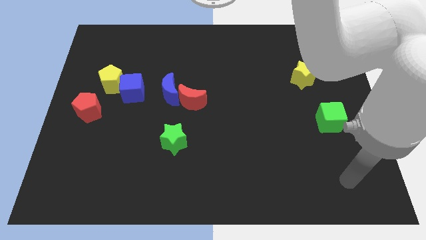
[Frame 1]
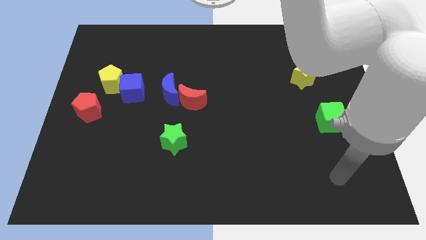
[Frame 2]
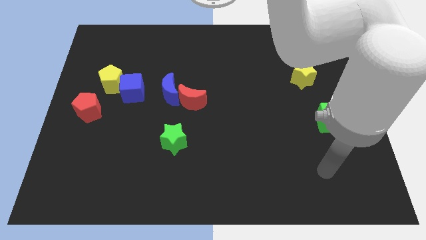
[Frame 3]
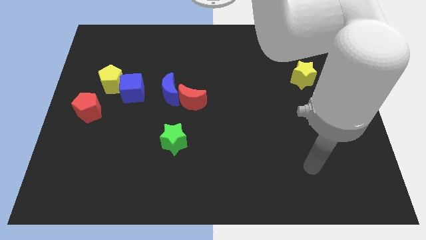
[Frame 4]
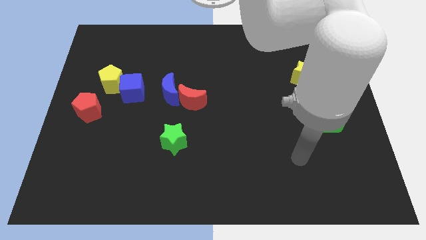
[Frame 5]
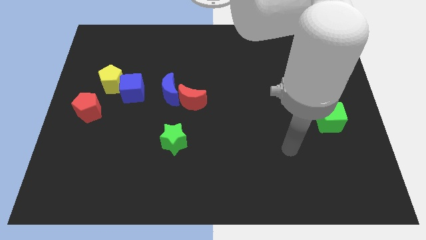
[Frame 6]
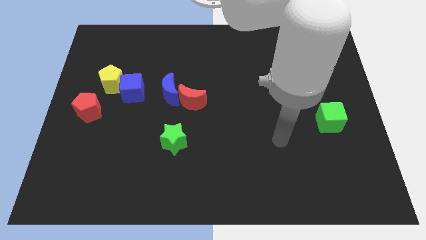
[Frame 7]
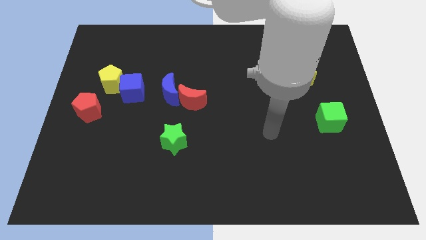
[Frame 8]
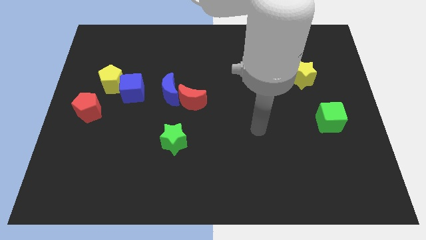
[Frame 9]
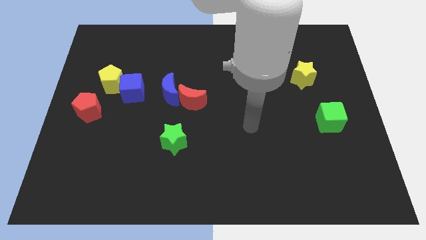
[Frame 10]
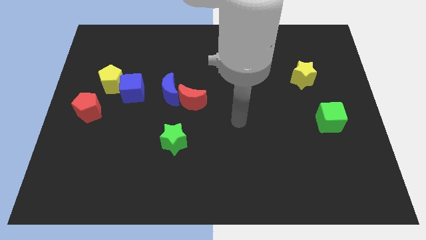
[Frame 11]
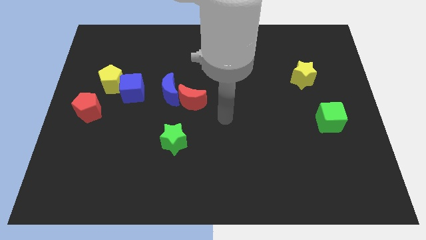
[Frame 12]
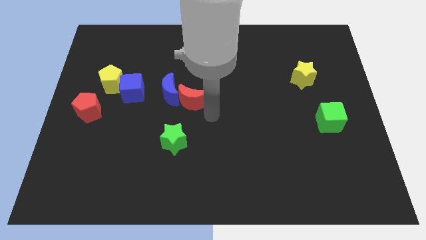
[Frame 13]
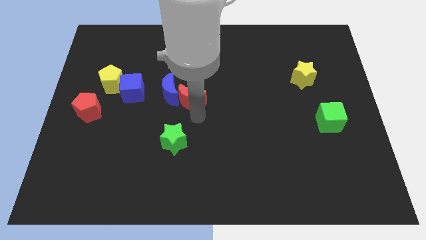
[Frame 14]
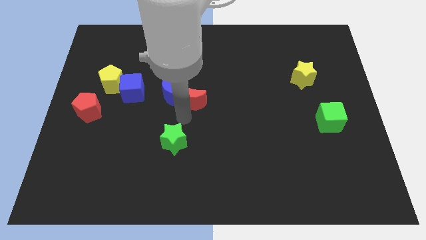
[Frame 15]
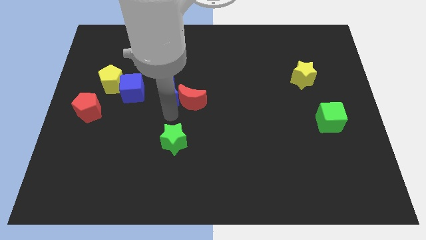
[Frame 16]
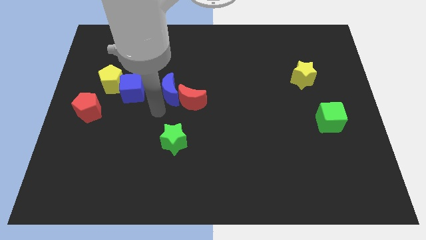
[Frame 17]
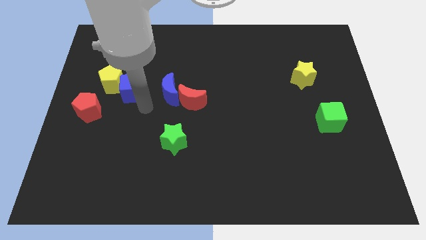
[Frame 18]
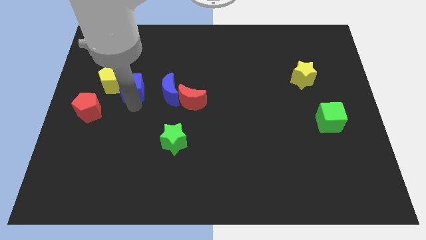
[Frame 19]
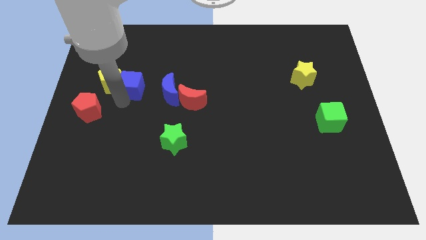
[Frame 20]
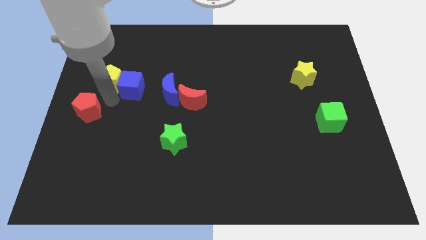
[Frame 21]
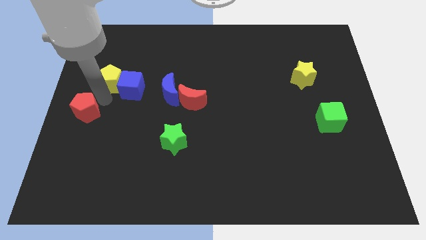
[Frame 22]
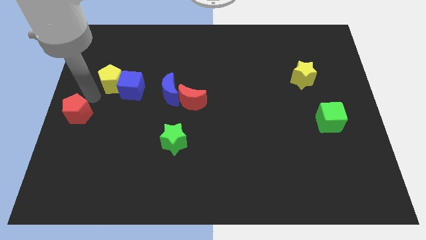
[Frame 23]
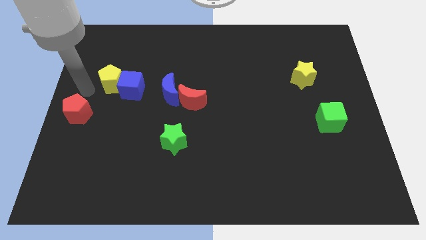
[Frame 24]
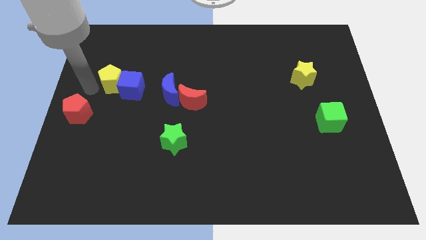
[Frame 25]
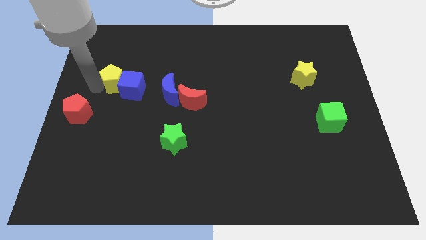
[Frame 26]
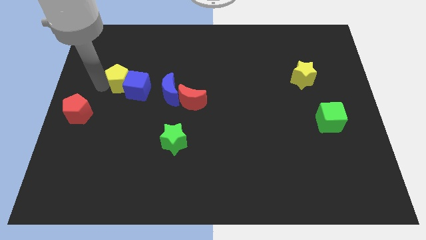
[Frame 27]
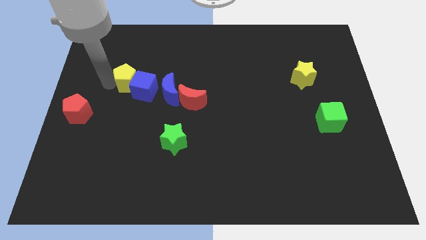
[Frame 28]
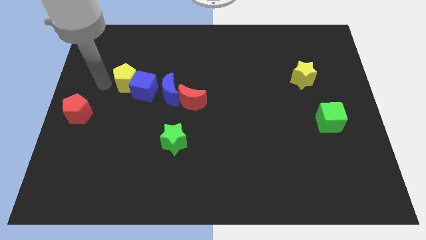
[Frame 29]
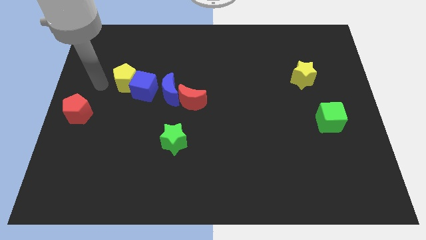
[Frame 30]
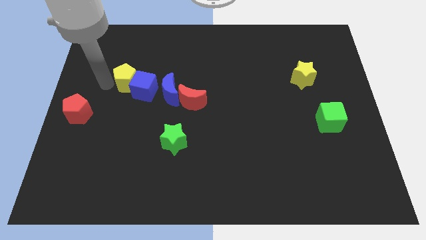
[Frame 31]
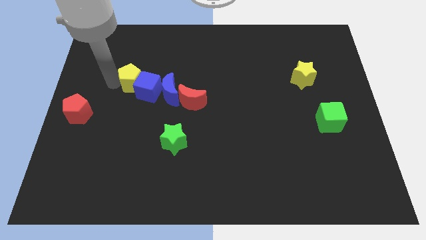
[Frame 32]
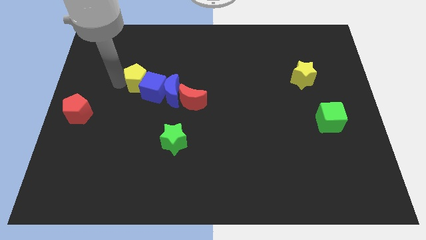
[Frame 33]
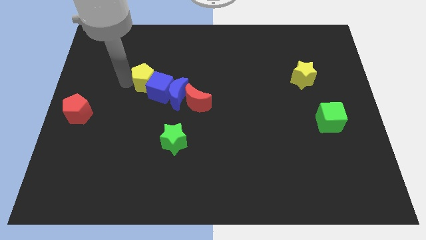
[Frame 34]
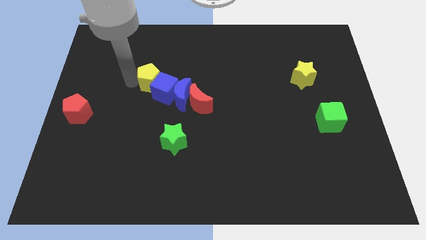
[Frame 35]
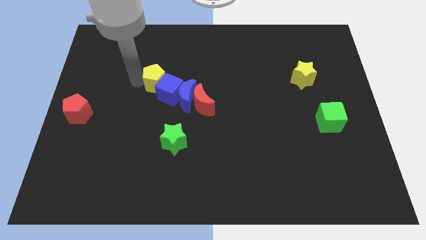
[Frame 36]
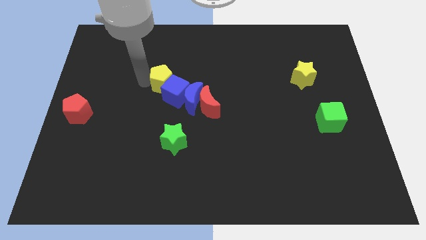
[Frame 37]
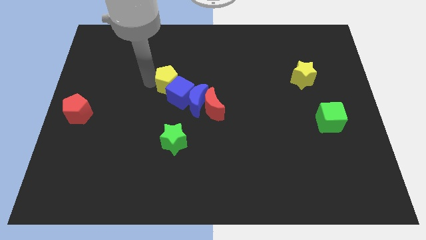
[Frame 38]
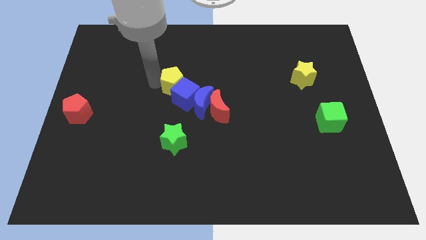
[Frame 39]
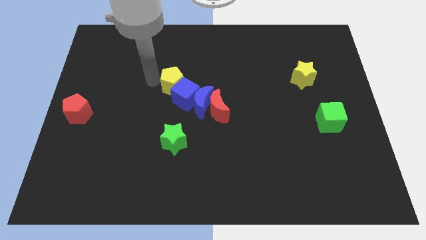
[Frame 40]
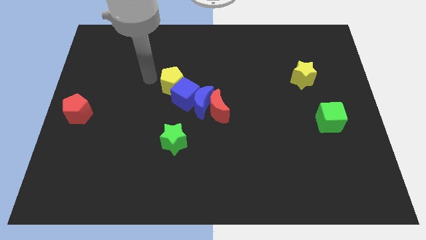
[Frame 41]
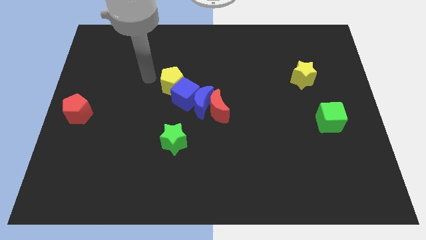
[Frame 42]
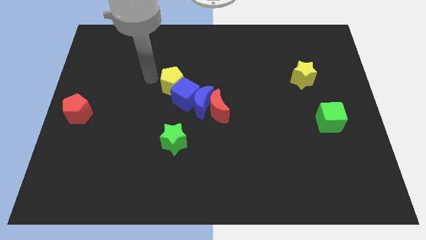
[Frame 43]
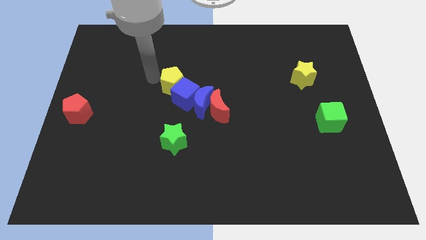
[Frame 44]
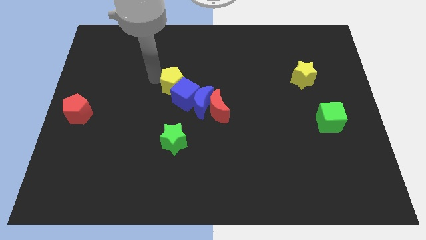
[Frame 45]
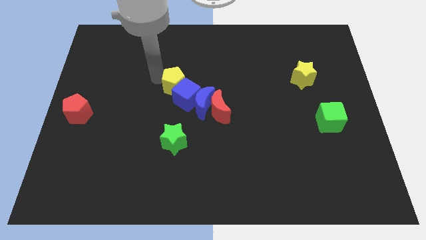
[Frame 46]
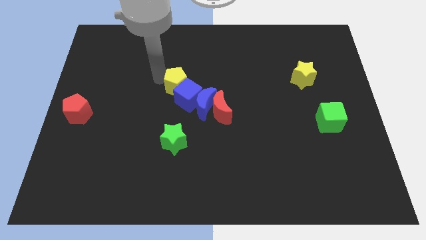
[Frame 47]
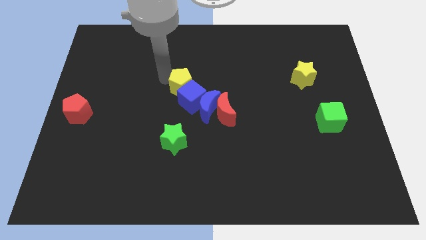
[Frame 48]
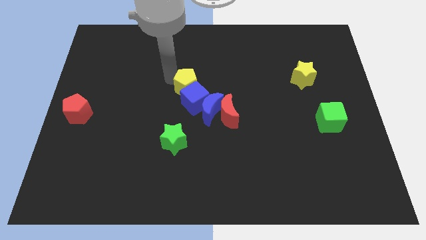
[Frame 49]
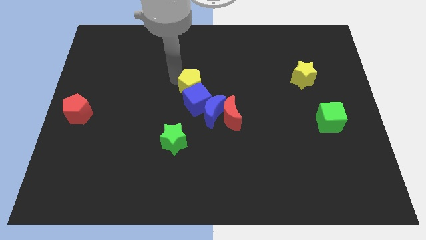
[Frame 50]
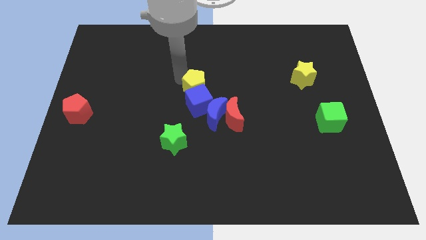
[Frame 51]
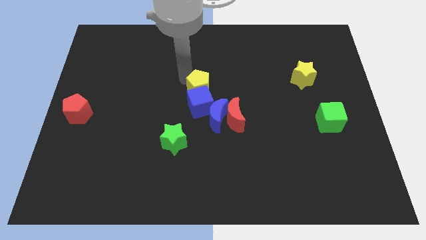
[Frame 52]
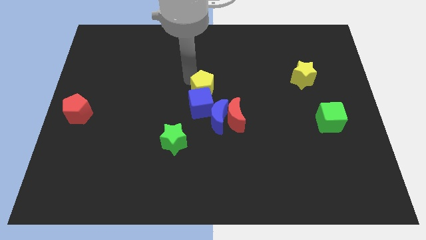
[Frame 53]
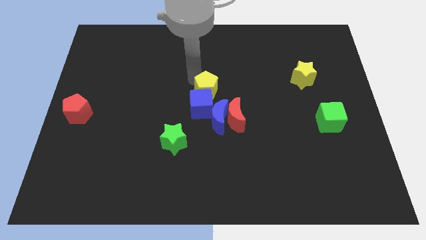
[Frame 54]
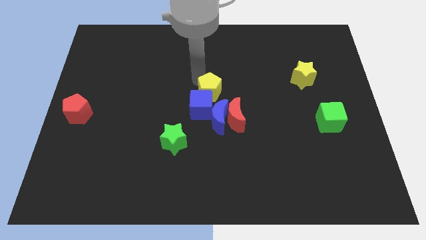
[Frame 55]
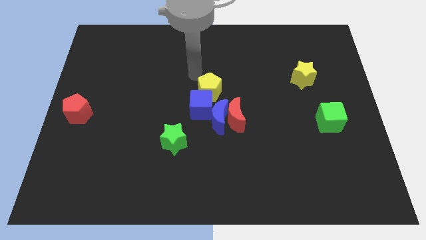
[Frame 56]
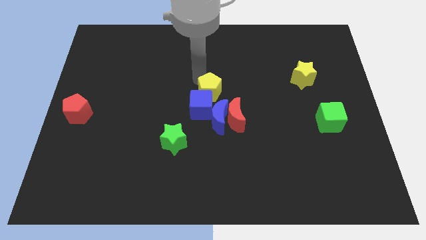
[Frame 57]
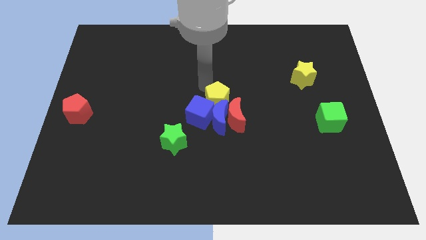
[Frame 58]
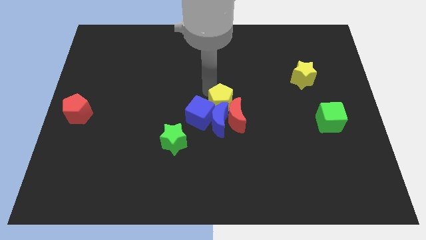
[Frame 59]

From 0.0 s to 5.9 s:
put the yellow pentagon close to the red moon

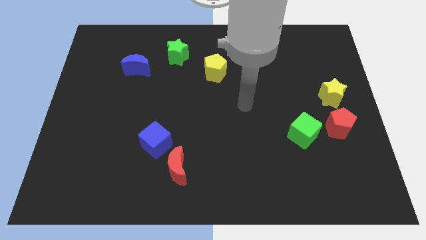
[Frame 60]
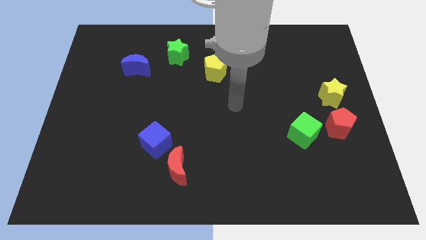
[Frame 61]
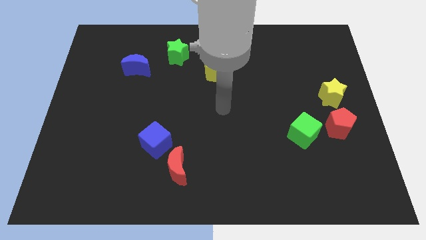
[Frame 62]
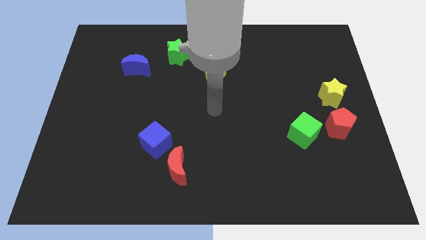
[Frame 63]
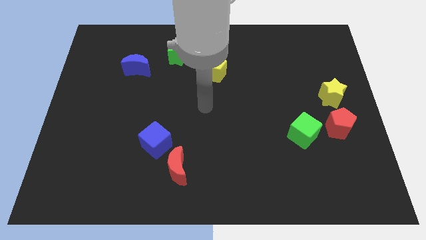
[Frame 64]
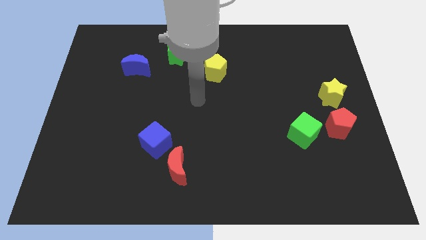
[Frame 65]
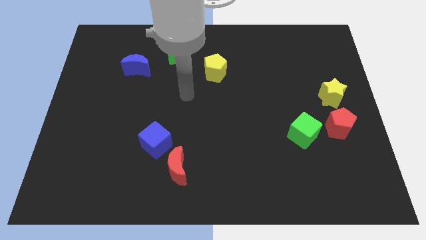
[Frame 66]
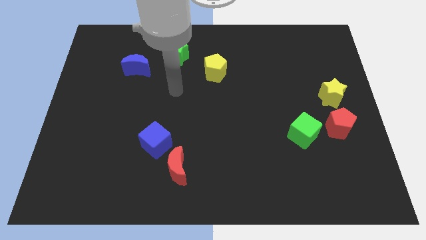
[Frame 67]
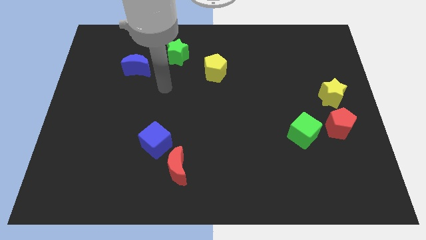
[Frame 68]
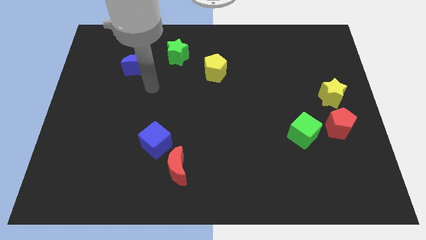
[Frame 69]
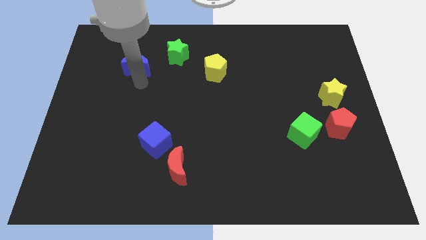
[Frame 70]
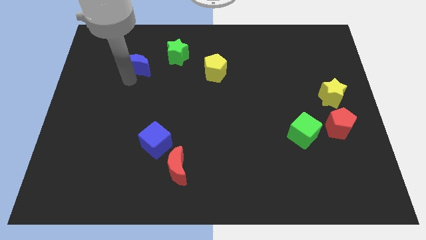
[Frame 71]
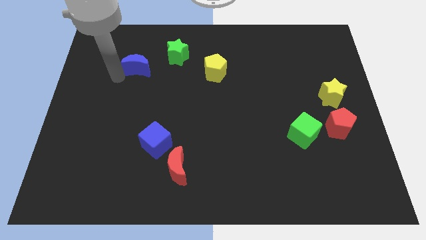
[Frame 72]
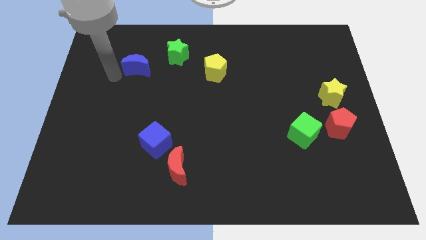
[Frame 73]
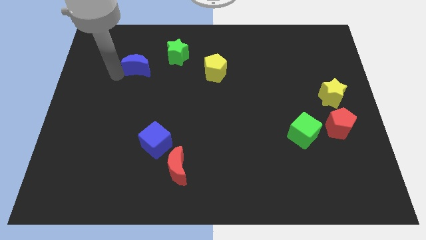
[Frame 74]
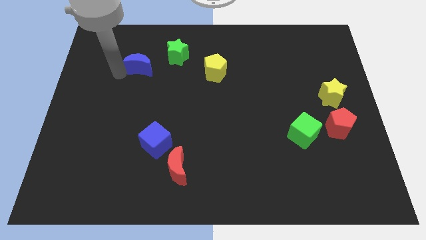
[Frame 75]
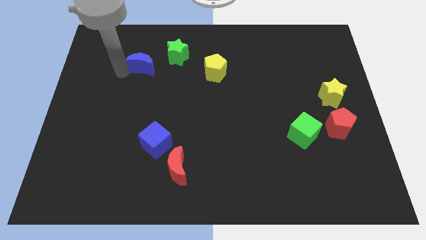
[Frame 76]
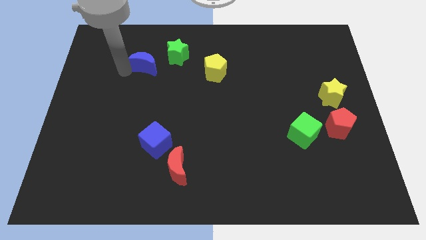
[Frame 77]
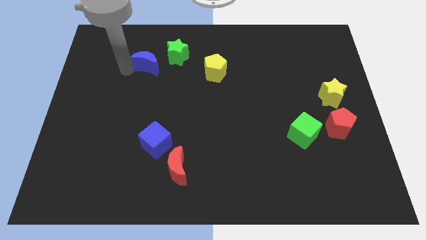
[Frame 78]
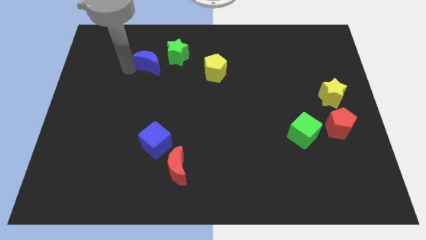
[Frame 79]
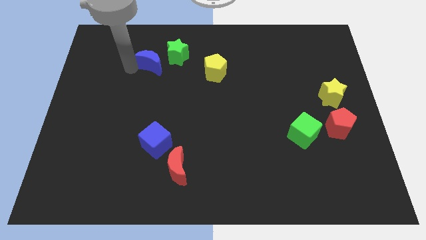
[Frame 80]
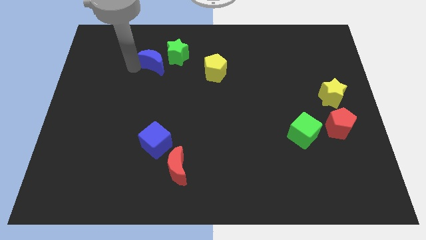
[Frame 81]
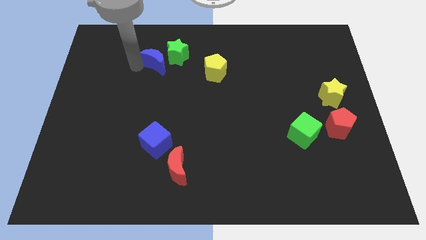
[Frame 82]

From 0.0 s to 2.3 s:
move the blue moon close to the green star
